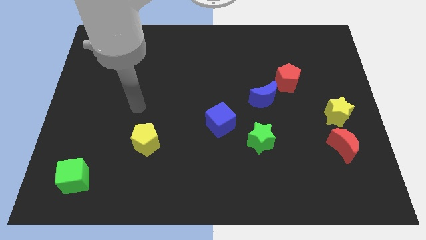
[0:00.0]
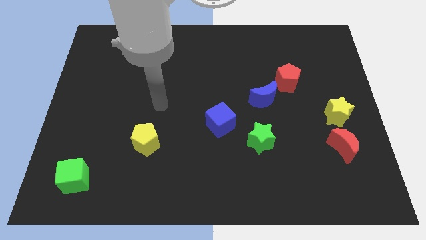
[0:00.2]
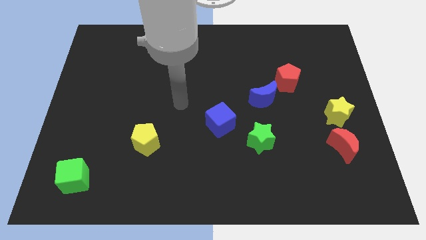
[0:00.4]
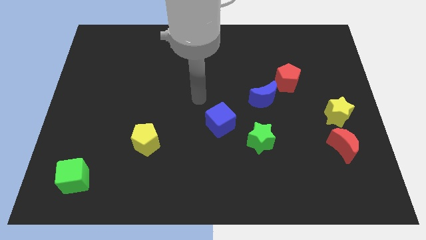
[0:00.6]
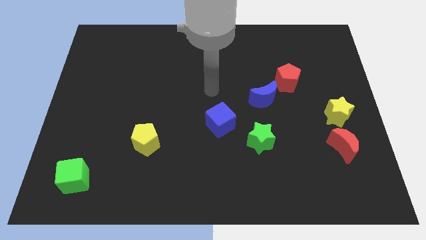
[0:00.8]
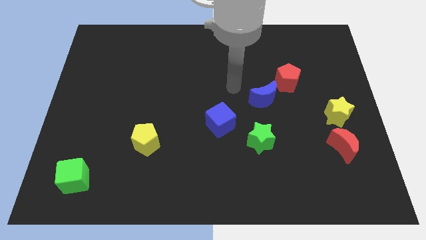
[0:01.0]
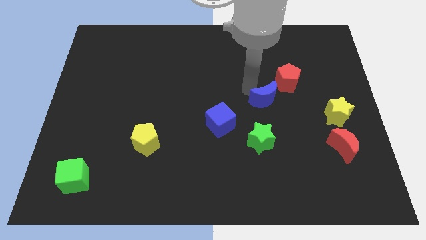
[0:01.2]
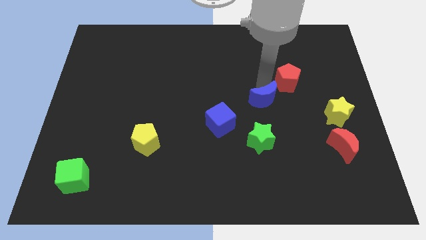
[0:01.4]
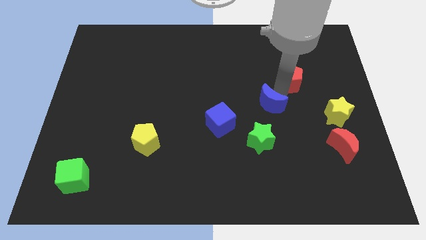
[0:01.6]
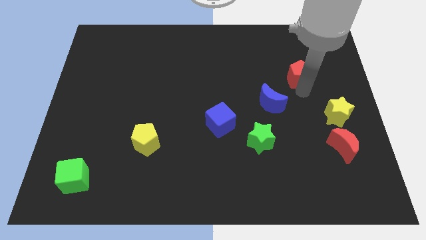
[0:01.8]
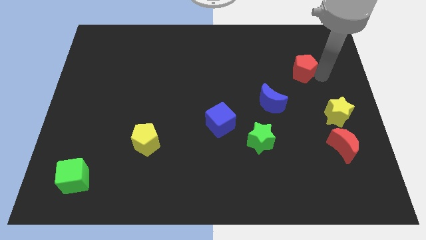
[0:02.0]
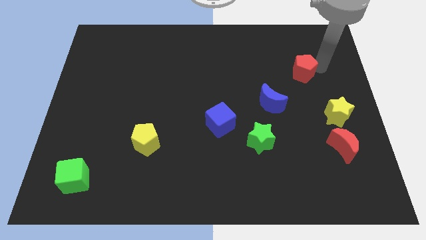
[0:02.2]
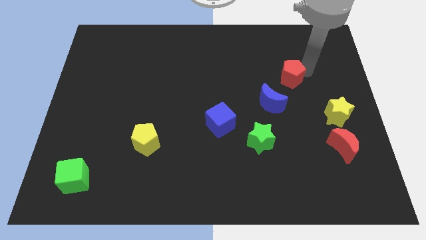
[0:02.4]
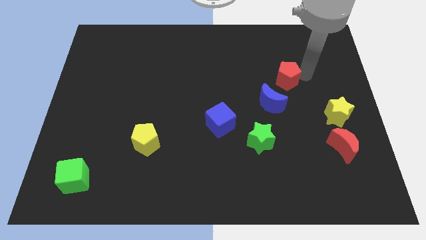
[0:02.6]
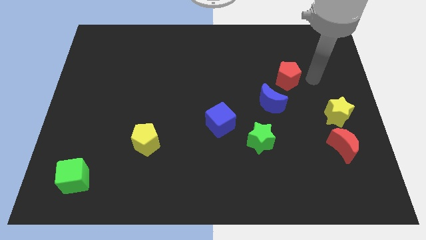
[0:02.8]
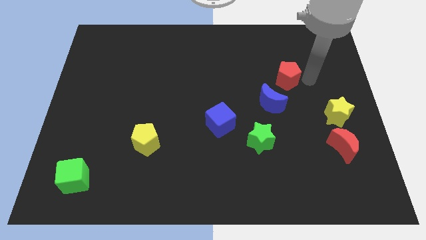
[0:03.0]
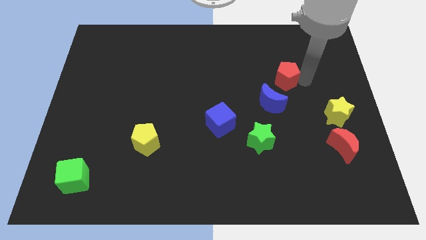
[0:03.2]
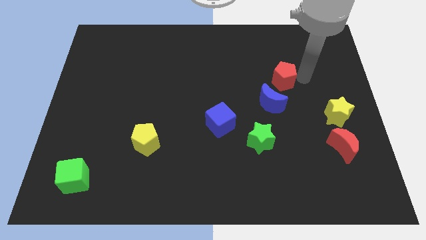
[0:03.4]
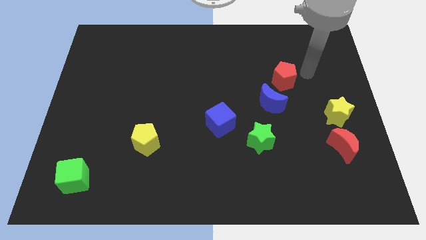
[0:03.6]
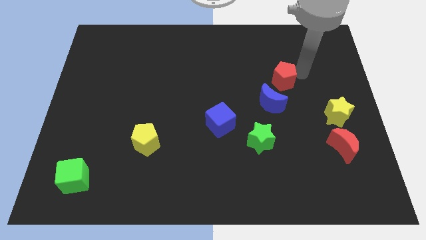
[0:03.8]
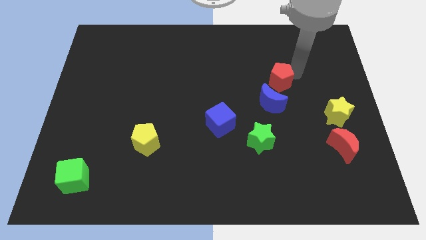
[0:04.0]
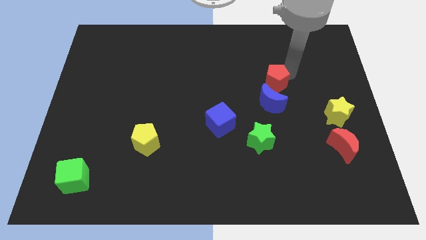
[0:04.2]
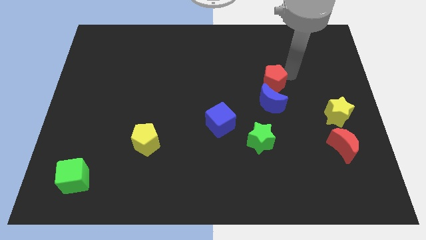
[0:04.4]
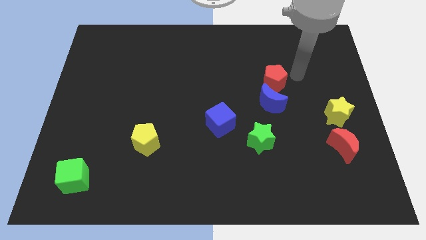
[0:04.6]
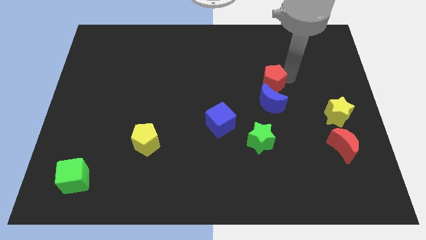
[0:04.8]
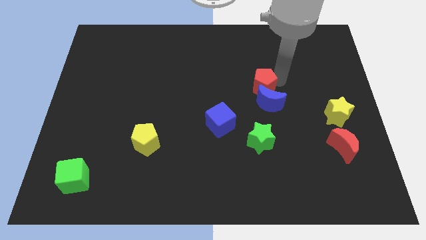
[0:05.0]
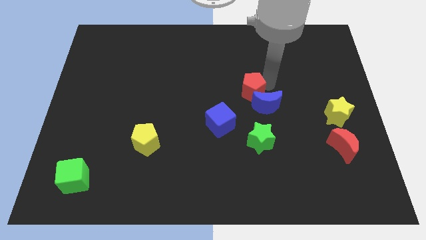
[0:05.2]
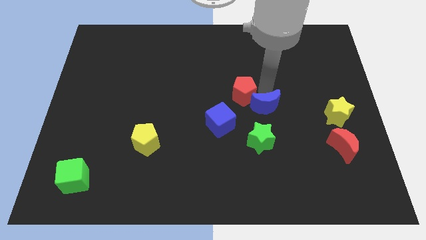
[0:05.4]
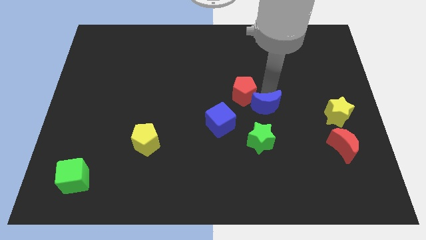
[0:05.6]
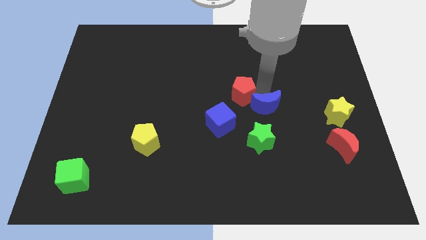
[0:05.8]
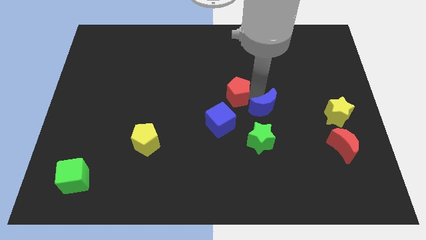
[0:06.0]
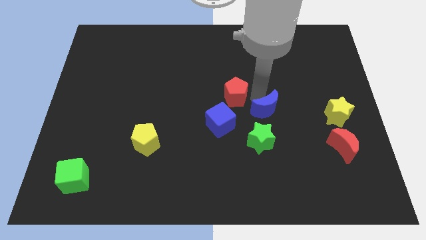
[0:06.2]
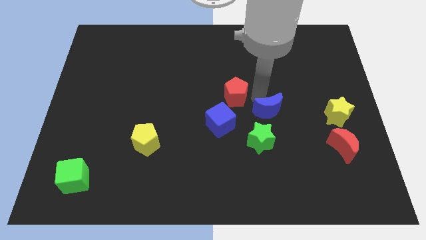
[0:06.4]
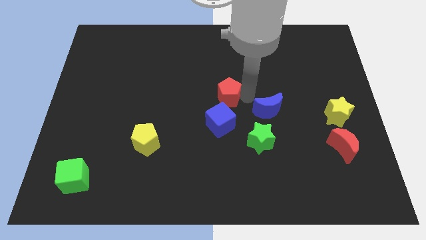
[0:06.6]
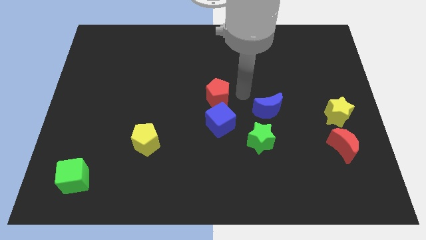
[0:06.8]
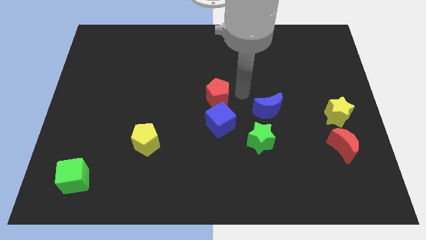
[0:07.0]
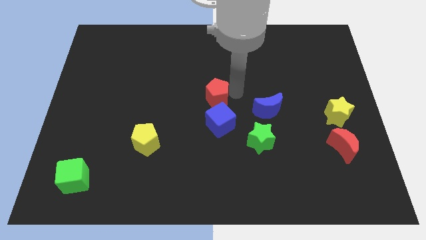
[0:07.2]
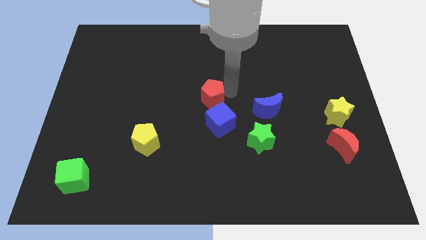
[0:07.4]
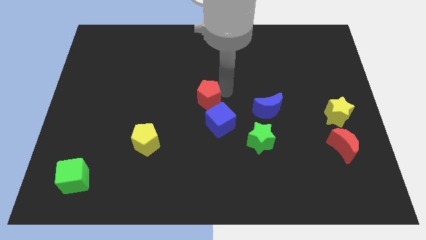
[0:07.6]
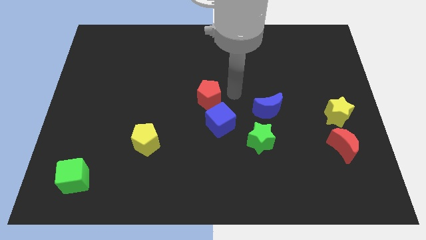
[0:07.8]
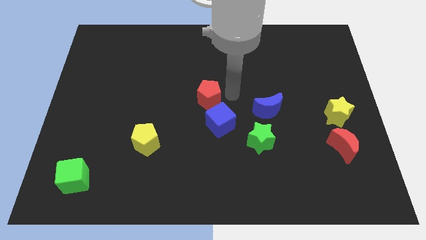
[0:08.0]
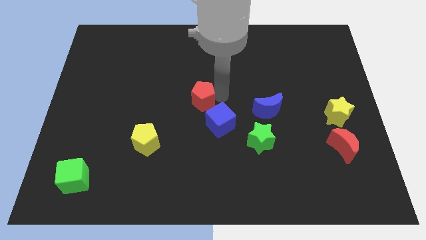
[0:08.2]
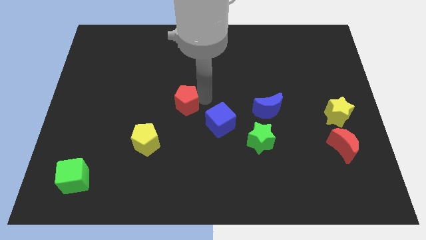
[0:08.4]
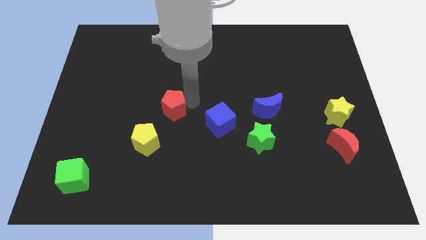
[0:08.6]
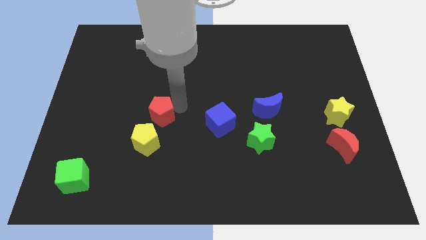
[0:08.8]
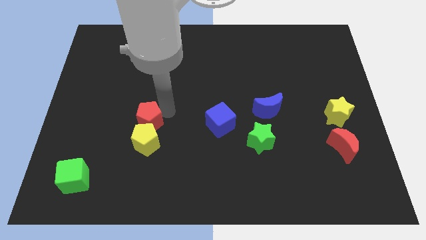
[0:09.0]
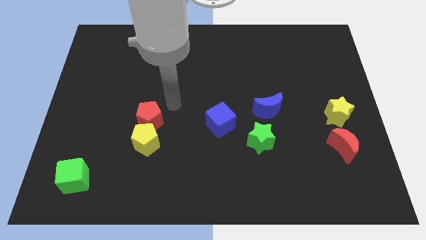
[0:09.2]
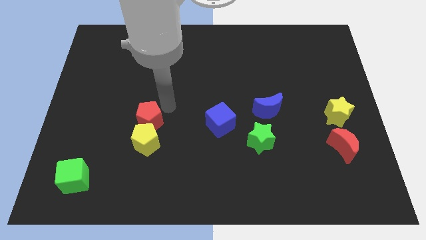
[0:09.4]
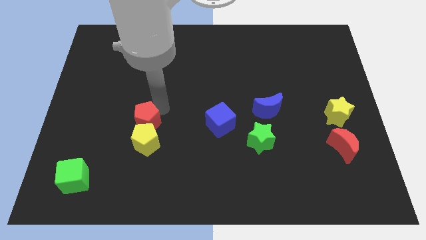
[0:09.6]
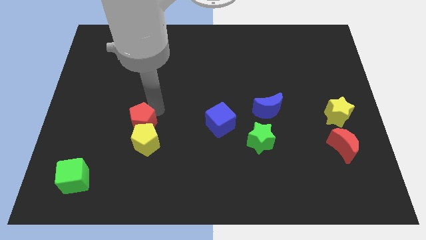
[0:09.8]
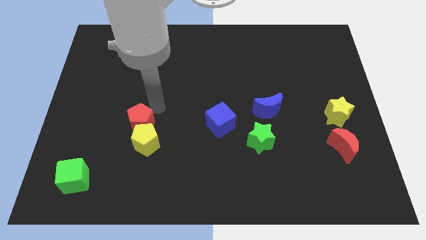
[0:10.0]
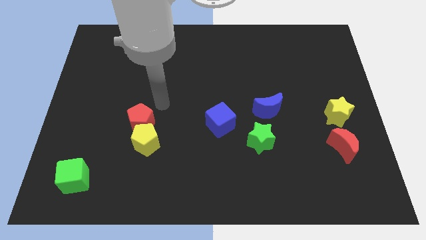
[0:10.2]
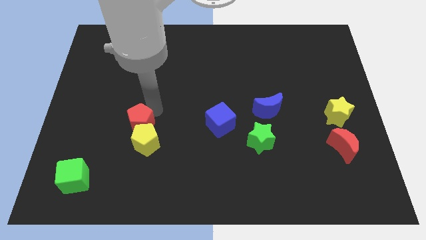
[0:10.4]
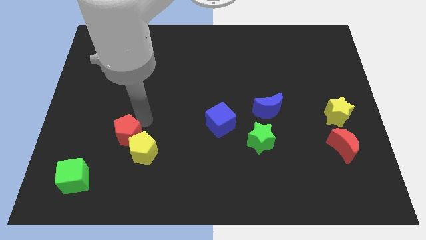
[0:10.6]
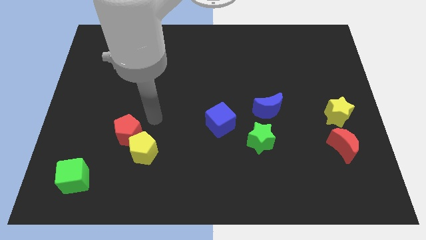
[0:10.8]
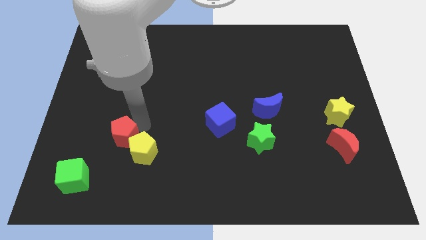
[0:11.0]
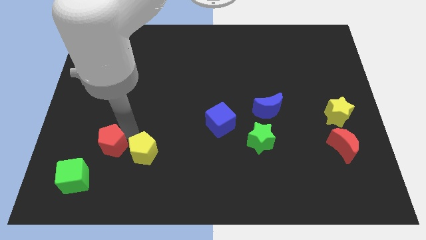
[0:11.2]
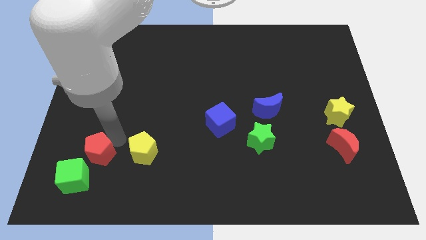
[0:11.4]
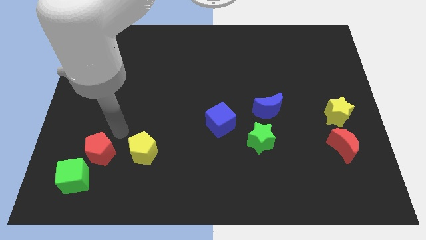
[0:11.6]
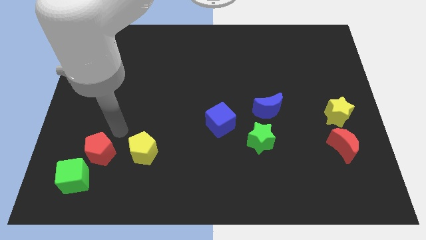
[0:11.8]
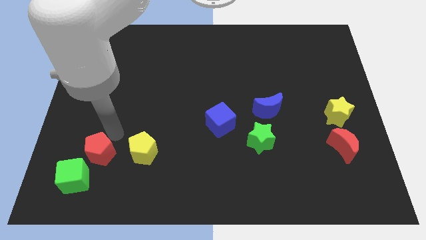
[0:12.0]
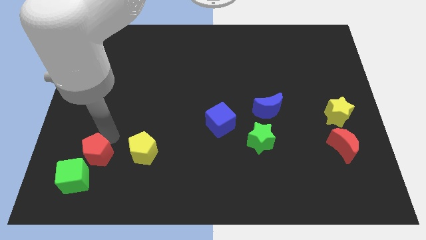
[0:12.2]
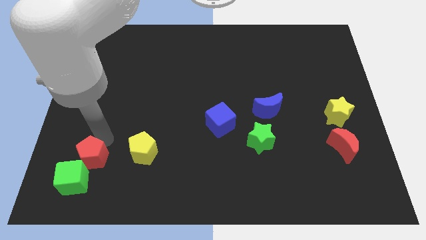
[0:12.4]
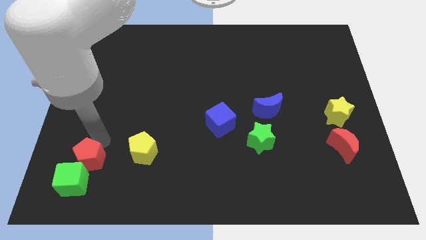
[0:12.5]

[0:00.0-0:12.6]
slide the red pentagon next to the green cube
